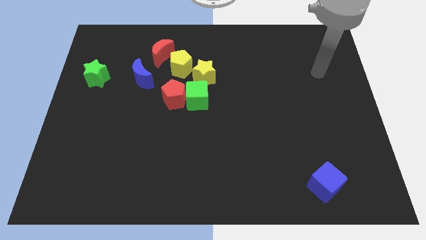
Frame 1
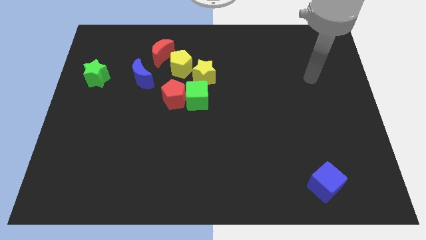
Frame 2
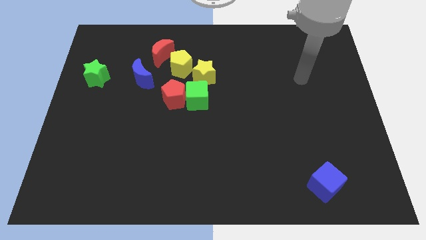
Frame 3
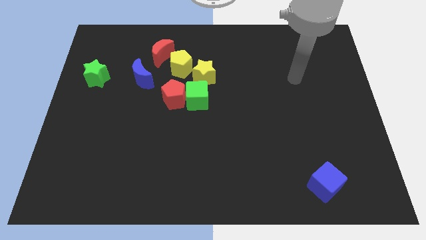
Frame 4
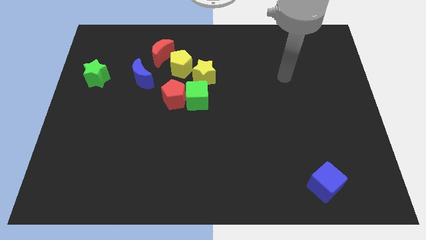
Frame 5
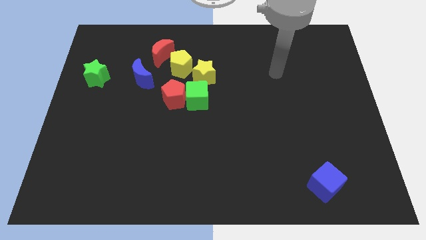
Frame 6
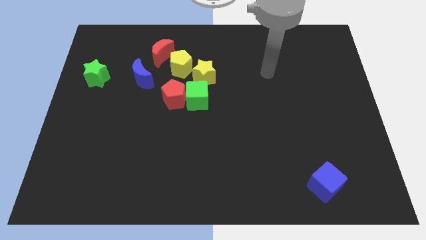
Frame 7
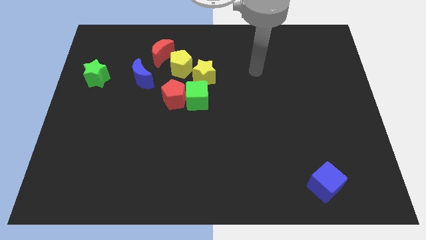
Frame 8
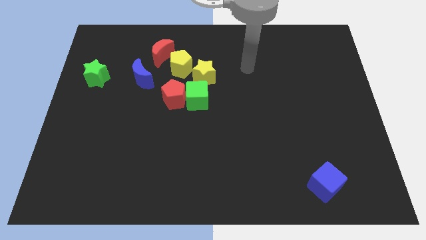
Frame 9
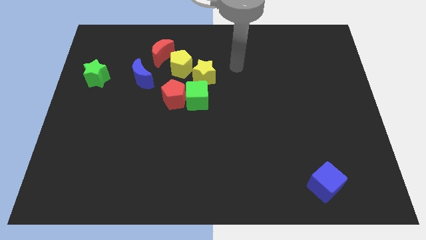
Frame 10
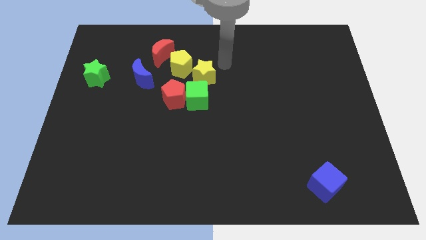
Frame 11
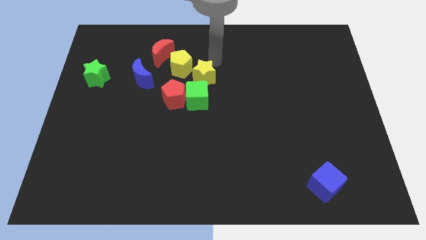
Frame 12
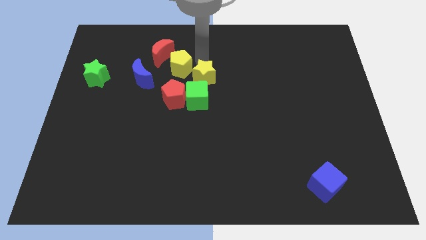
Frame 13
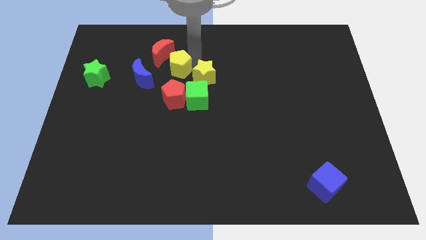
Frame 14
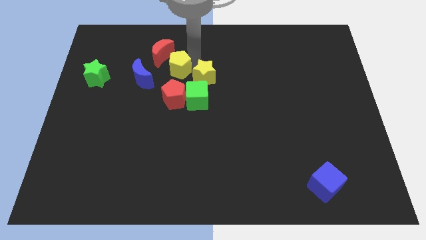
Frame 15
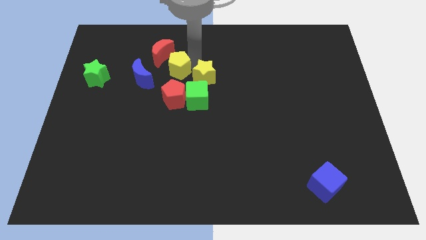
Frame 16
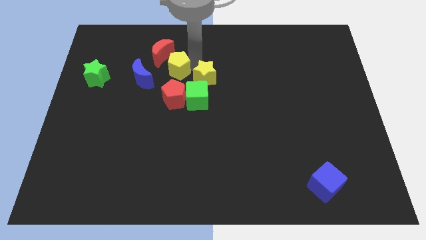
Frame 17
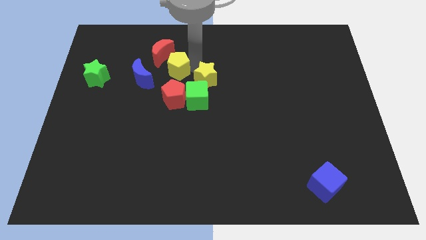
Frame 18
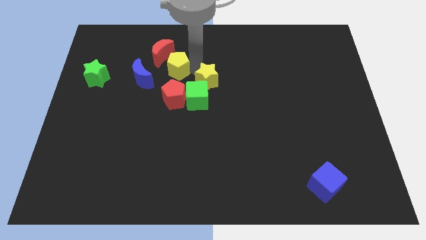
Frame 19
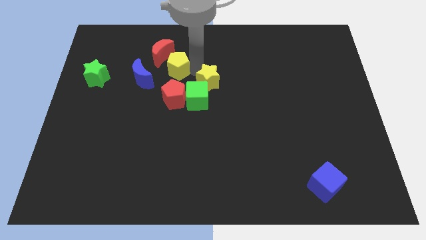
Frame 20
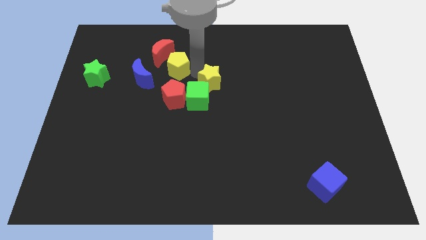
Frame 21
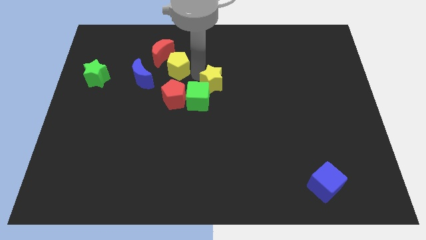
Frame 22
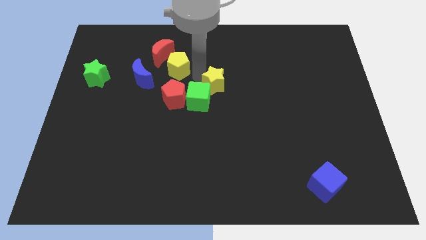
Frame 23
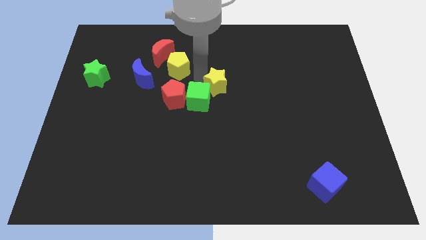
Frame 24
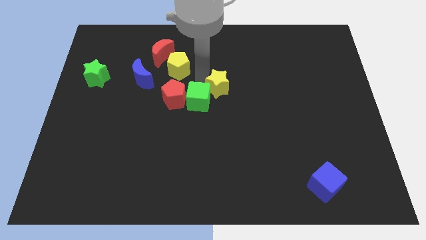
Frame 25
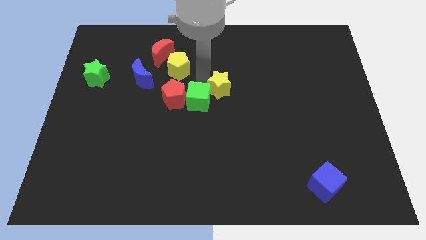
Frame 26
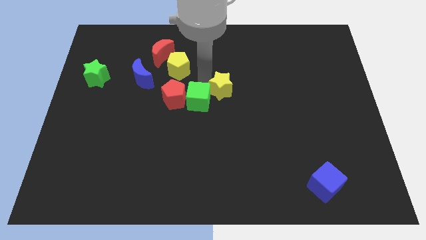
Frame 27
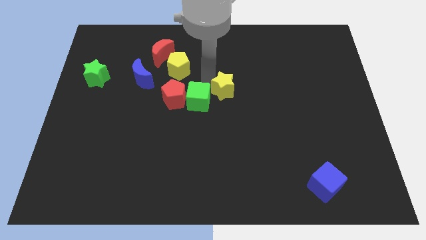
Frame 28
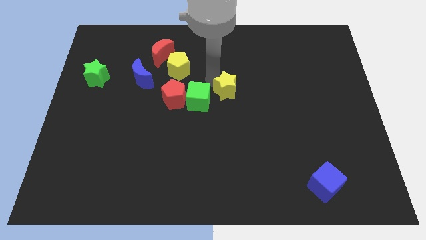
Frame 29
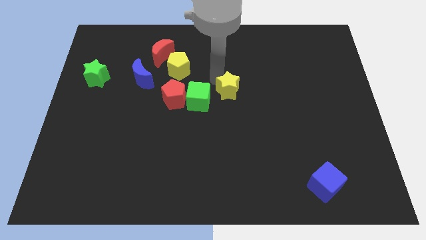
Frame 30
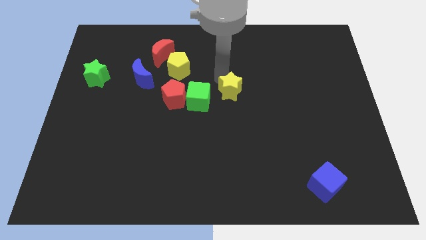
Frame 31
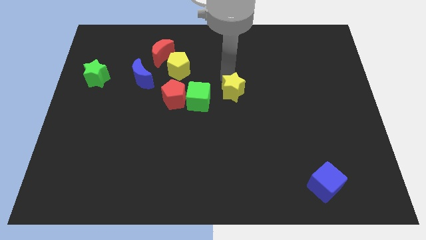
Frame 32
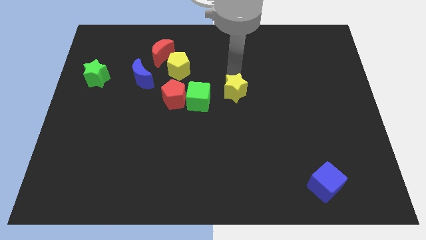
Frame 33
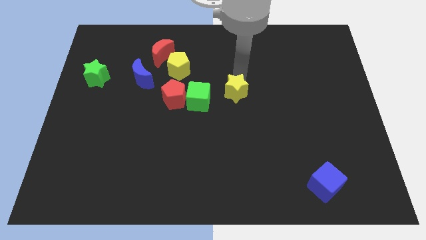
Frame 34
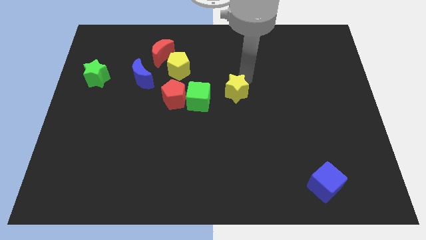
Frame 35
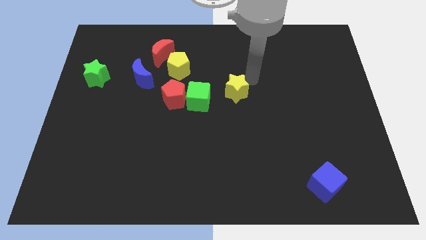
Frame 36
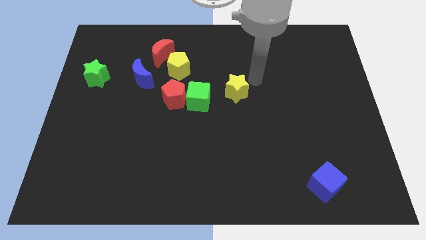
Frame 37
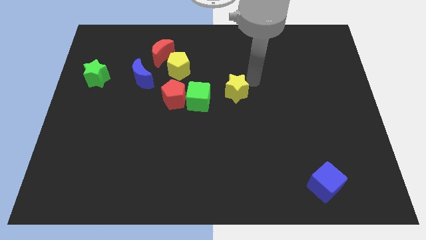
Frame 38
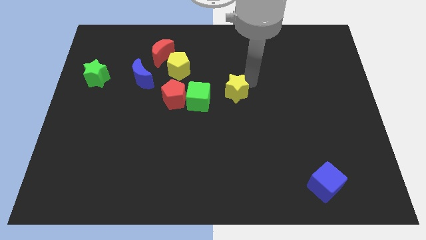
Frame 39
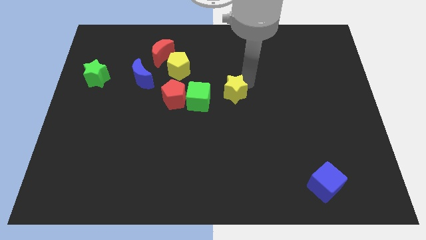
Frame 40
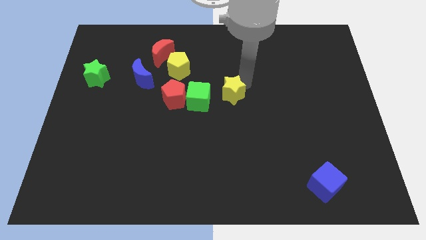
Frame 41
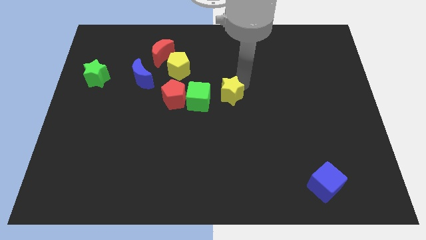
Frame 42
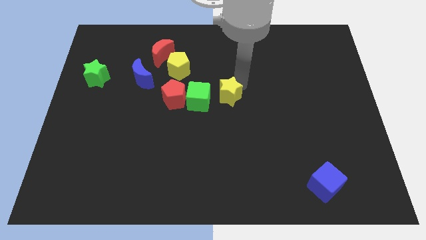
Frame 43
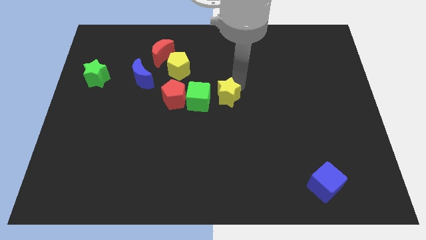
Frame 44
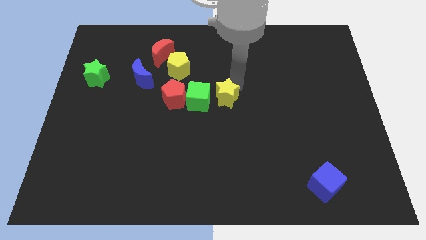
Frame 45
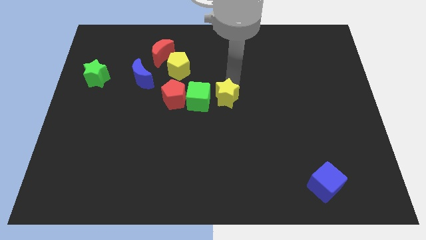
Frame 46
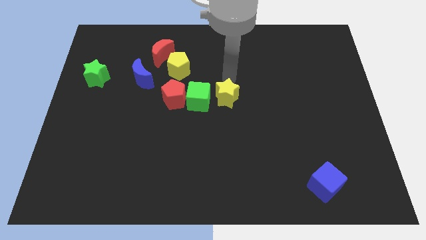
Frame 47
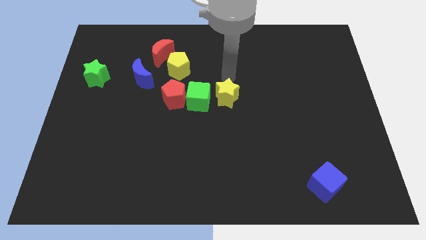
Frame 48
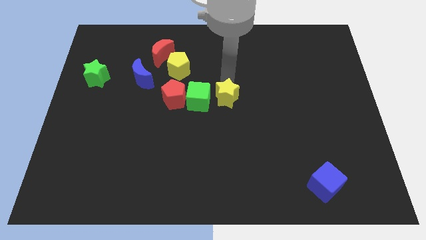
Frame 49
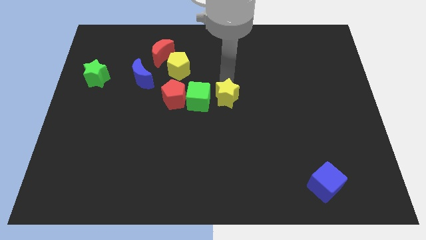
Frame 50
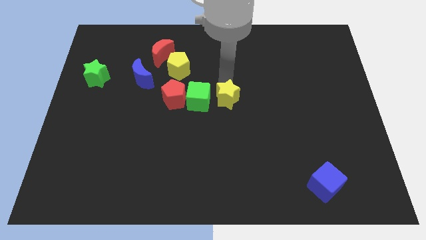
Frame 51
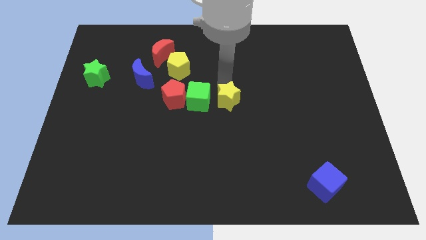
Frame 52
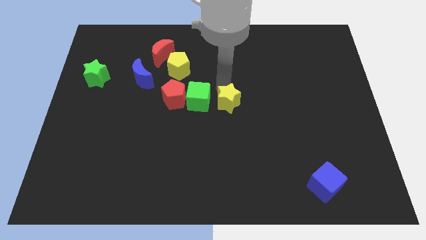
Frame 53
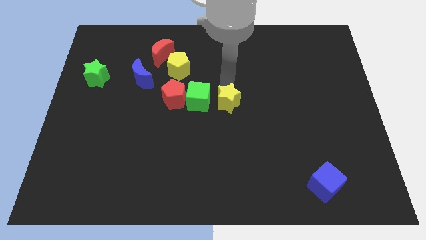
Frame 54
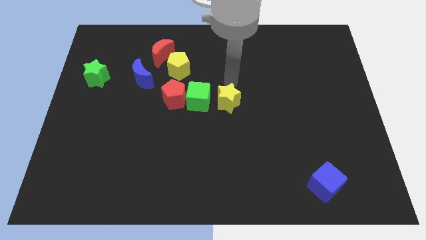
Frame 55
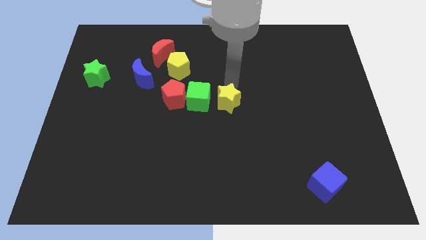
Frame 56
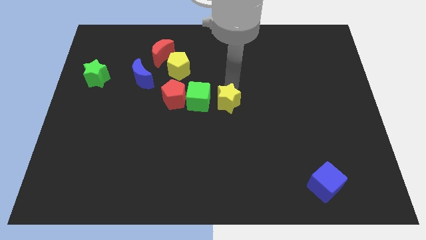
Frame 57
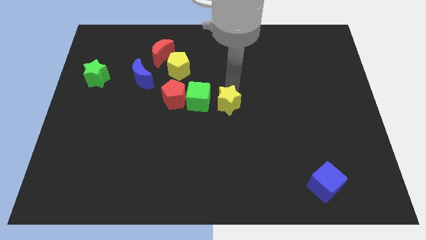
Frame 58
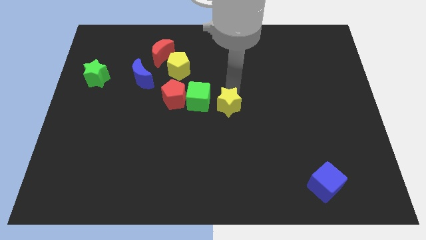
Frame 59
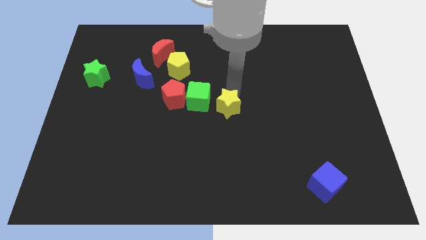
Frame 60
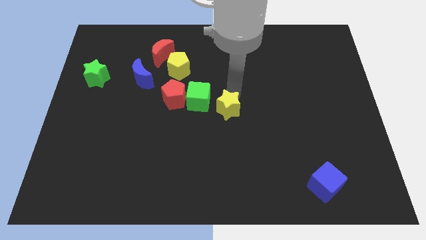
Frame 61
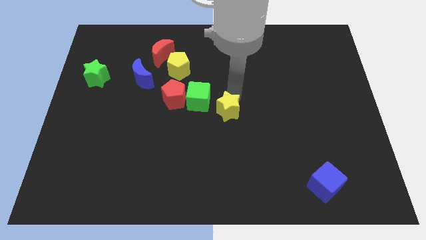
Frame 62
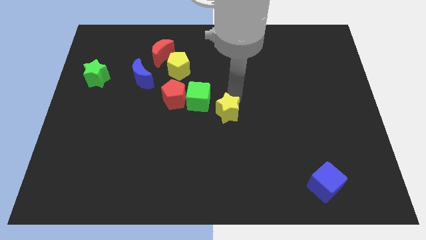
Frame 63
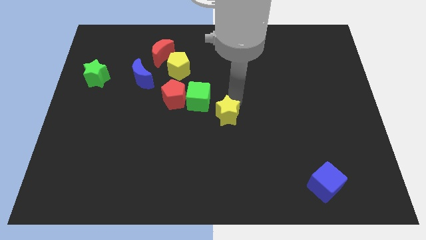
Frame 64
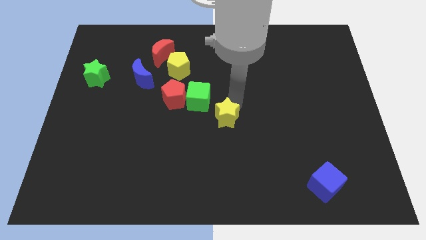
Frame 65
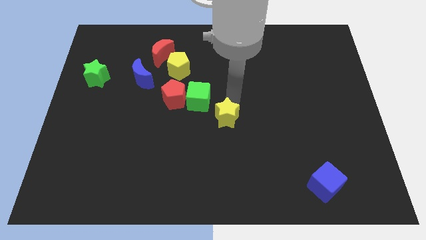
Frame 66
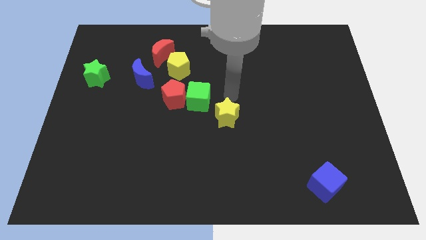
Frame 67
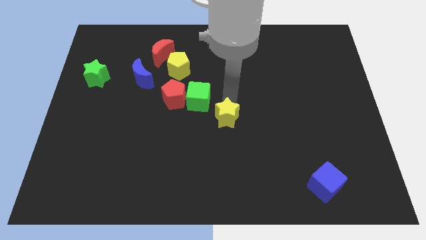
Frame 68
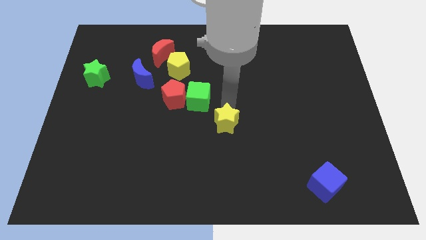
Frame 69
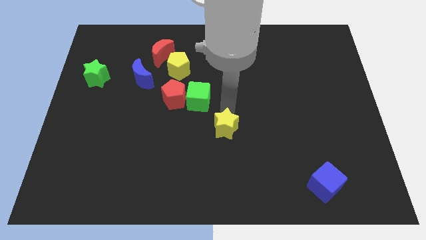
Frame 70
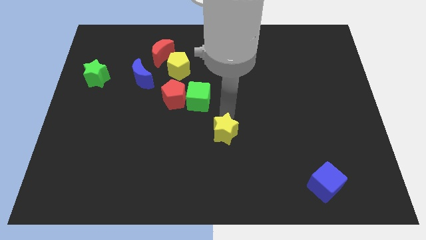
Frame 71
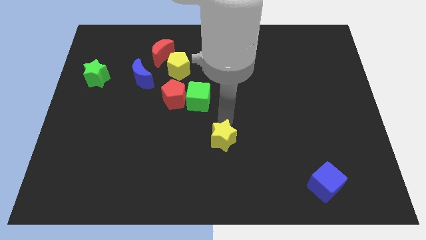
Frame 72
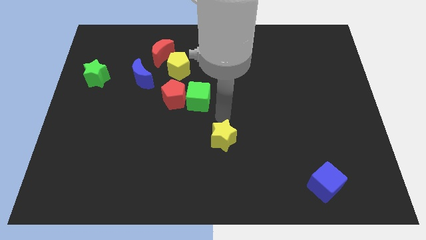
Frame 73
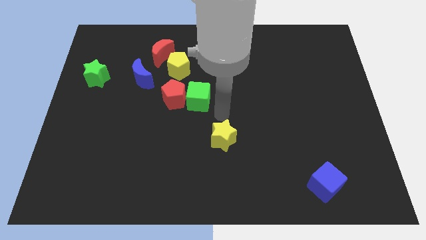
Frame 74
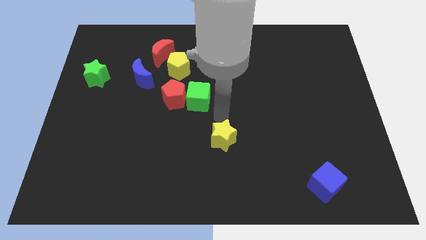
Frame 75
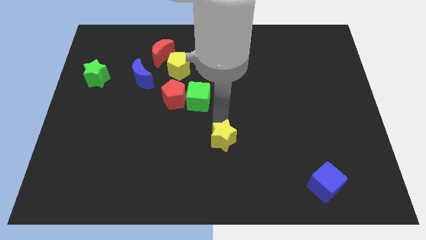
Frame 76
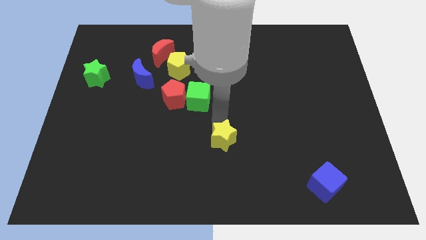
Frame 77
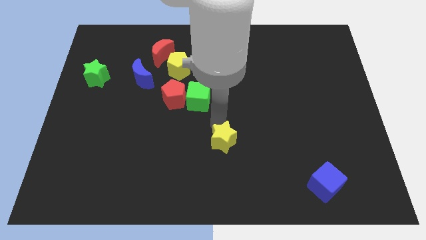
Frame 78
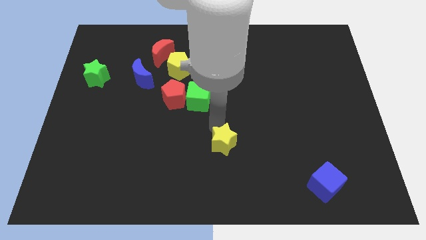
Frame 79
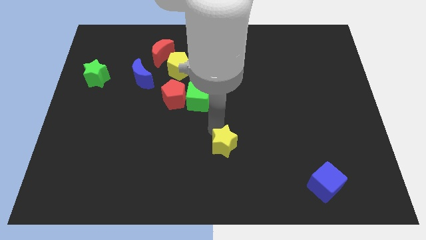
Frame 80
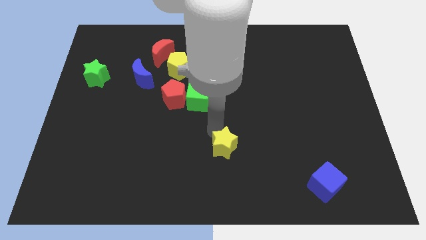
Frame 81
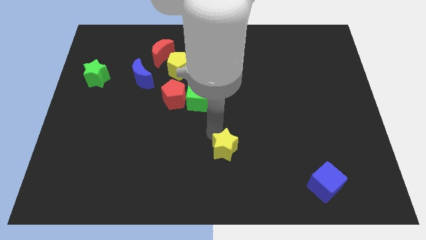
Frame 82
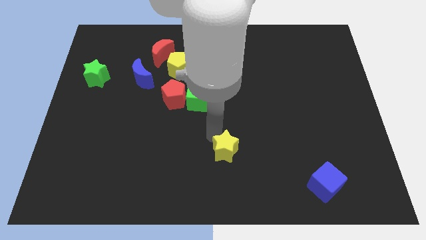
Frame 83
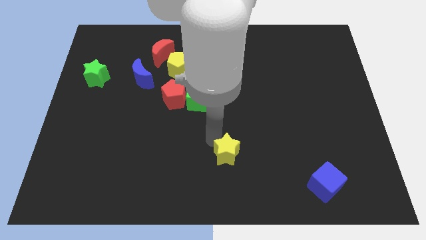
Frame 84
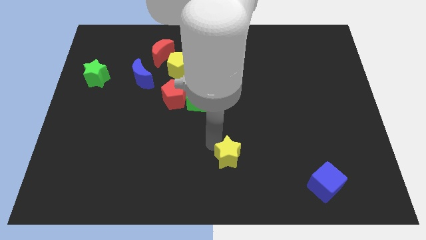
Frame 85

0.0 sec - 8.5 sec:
move the yellow star to the bottom
